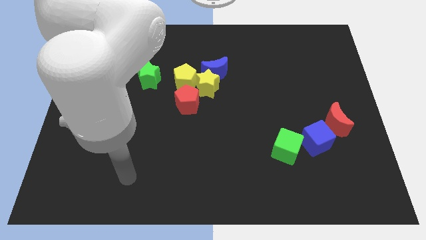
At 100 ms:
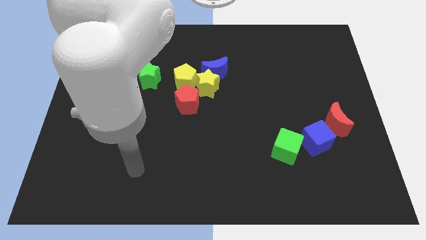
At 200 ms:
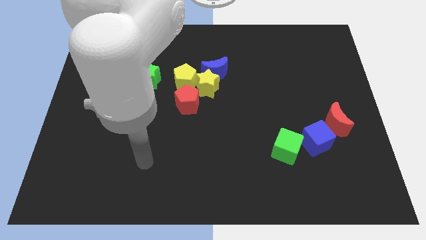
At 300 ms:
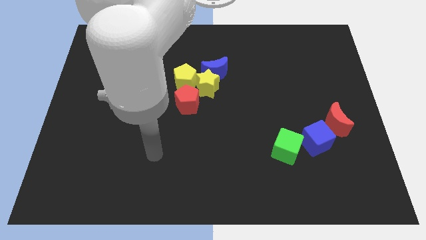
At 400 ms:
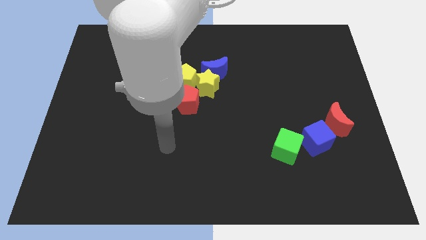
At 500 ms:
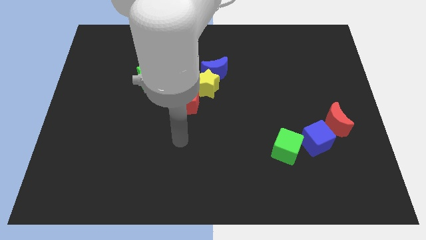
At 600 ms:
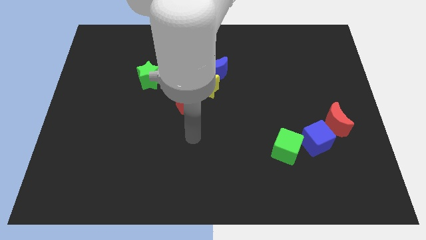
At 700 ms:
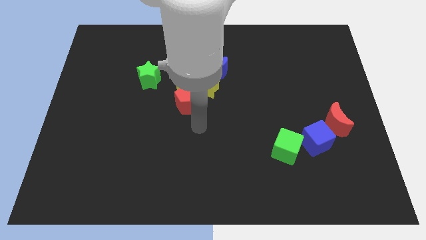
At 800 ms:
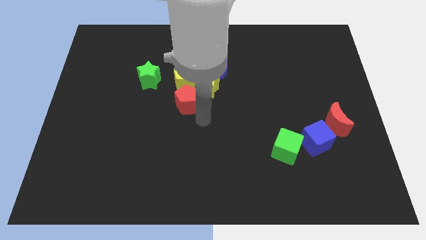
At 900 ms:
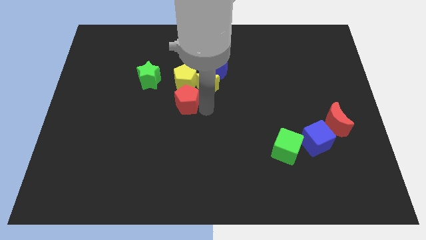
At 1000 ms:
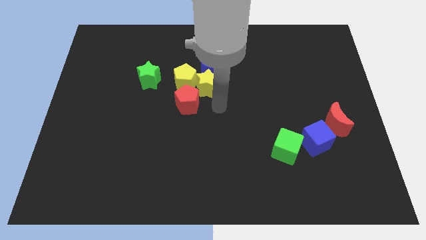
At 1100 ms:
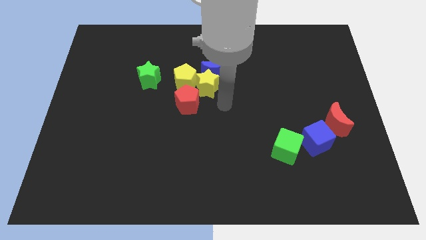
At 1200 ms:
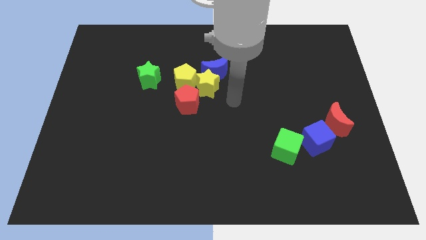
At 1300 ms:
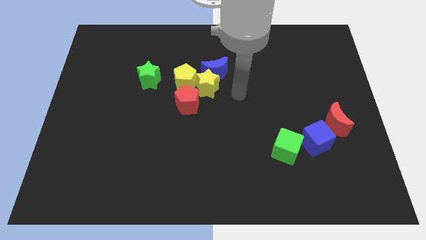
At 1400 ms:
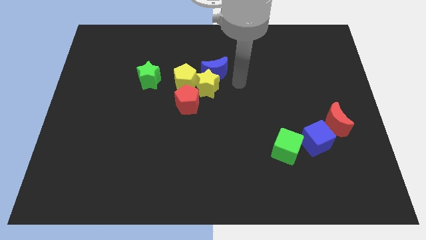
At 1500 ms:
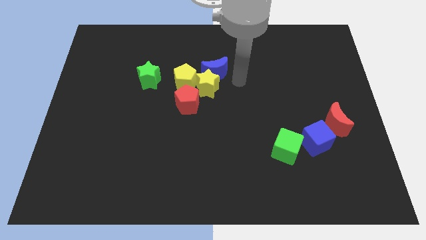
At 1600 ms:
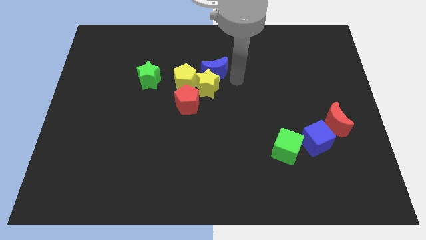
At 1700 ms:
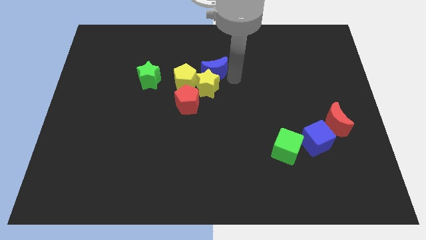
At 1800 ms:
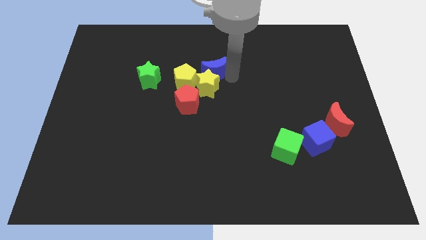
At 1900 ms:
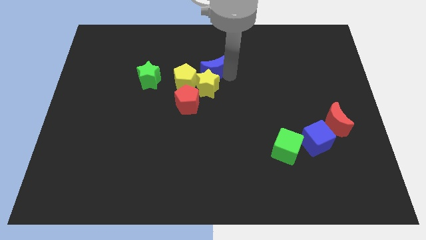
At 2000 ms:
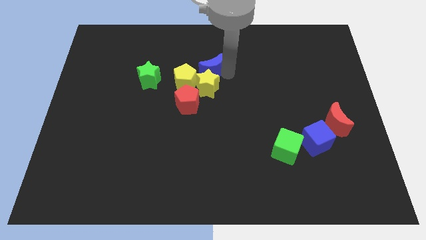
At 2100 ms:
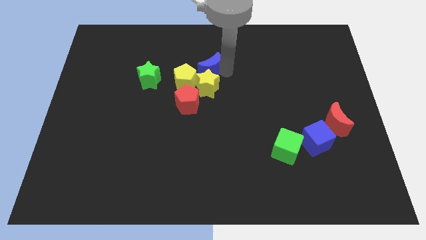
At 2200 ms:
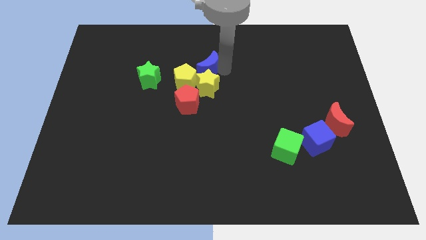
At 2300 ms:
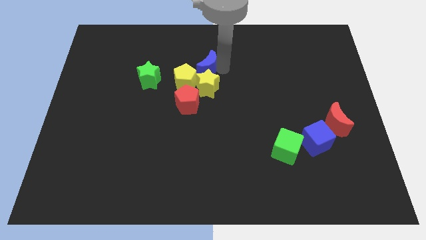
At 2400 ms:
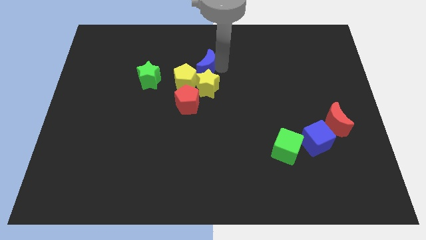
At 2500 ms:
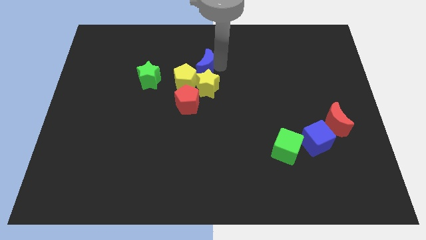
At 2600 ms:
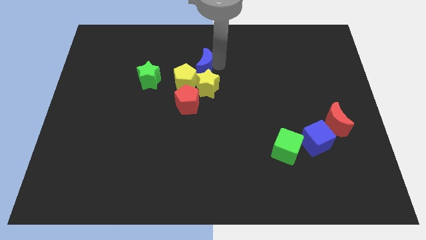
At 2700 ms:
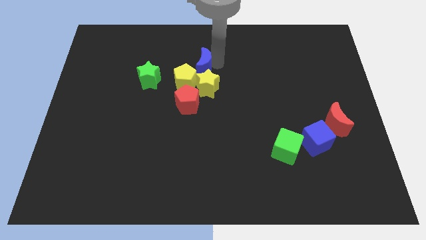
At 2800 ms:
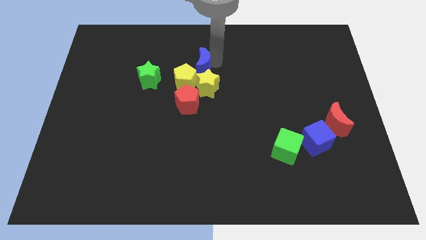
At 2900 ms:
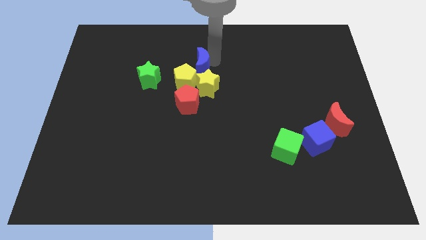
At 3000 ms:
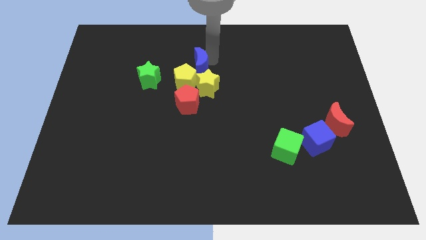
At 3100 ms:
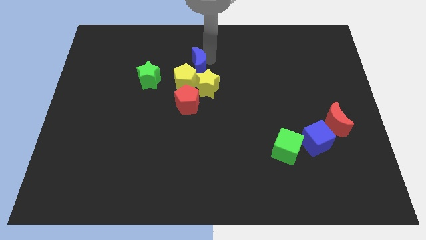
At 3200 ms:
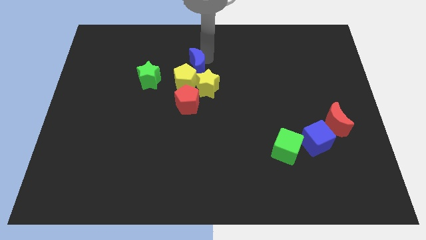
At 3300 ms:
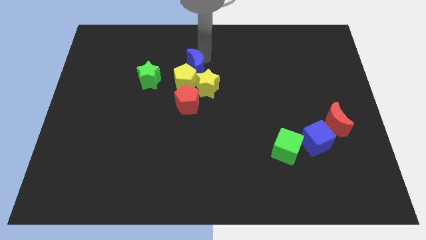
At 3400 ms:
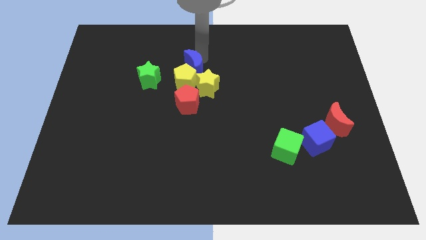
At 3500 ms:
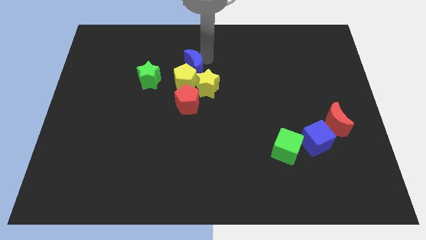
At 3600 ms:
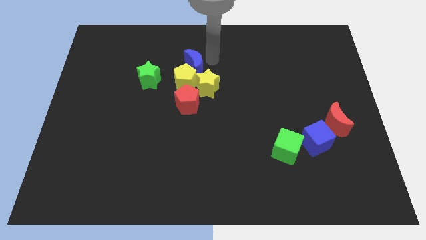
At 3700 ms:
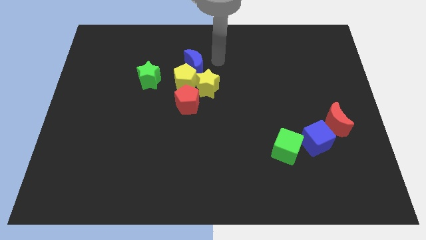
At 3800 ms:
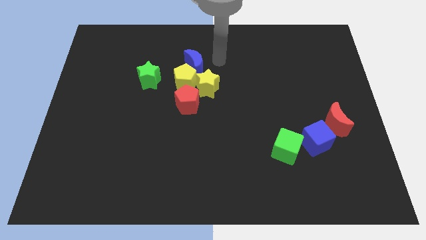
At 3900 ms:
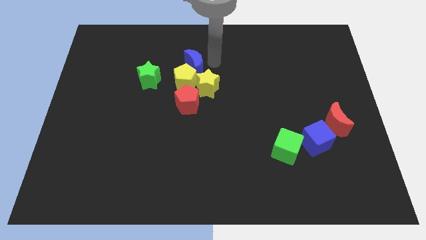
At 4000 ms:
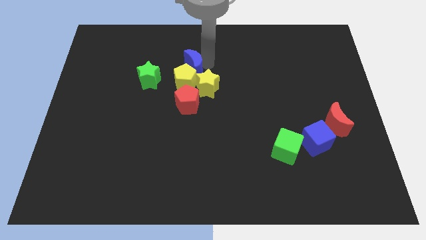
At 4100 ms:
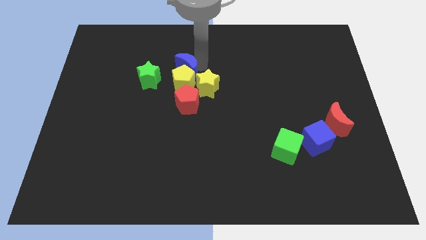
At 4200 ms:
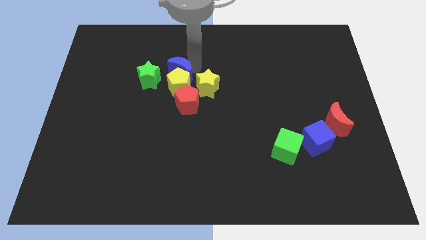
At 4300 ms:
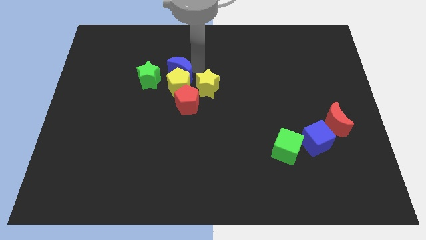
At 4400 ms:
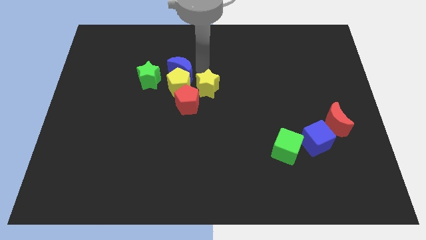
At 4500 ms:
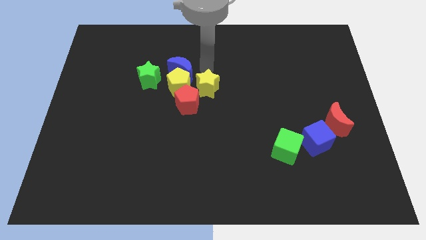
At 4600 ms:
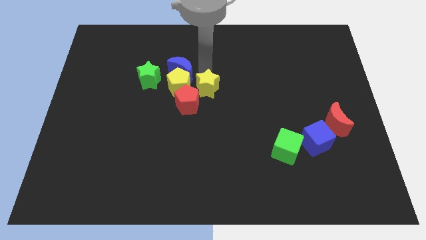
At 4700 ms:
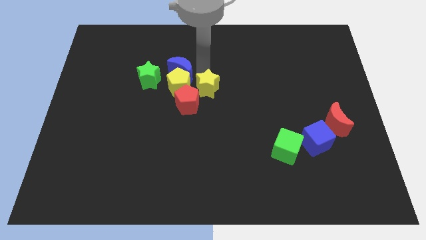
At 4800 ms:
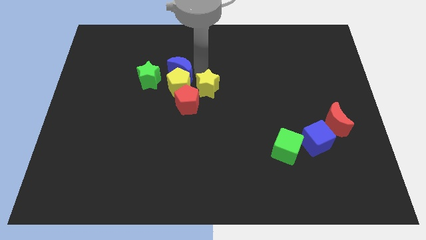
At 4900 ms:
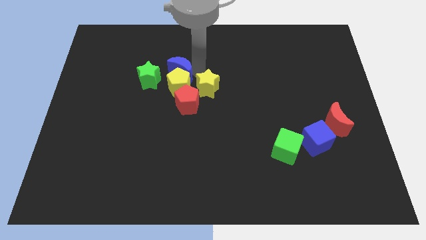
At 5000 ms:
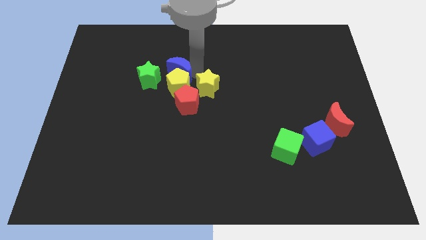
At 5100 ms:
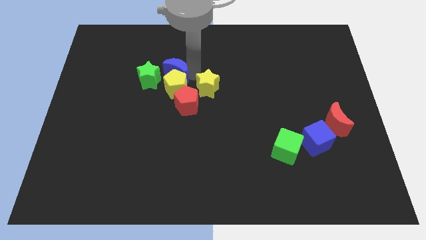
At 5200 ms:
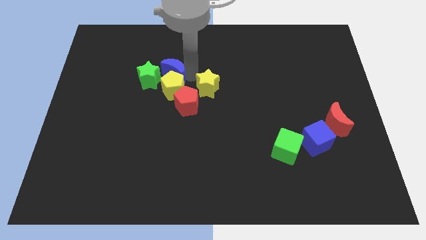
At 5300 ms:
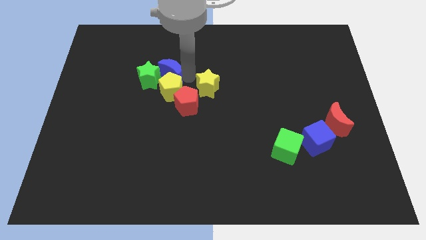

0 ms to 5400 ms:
move the blue moon to the green star
